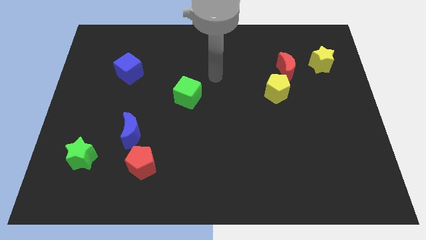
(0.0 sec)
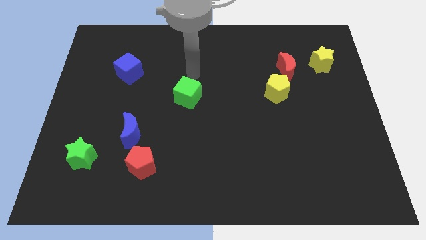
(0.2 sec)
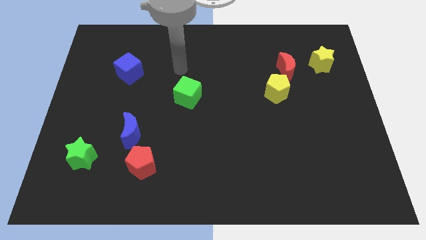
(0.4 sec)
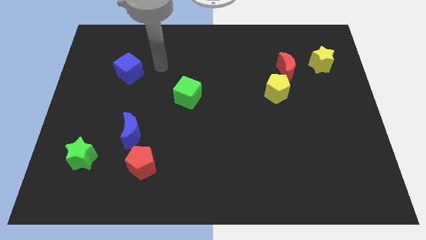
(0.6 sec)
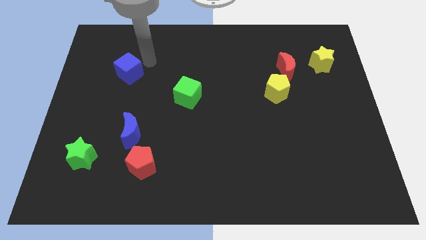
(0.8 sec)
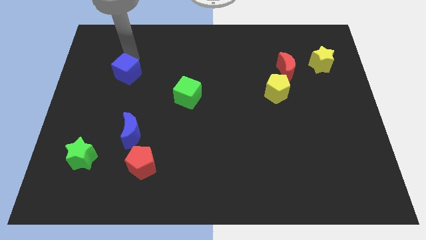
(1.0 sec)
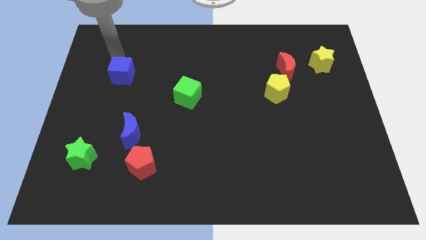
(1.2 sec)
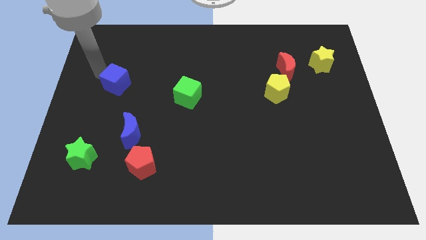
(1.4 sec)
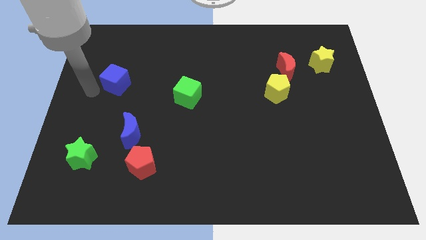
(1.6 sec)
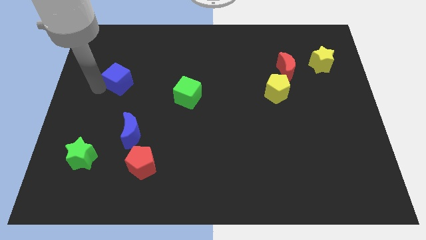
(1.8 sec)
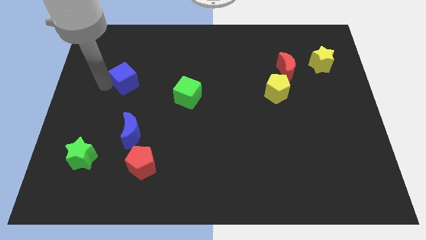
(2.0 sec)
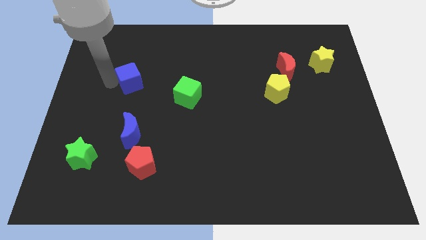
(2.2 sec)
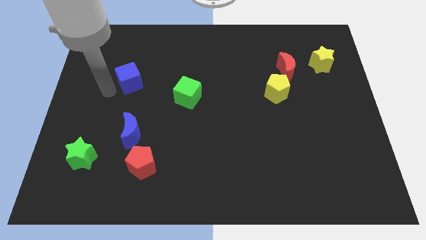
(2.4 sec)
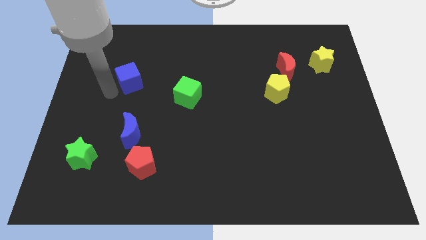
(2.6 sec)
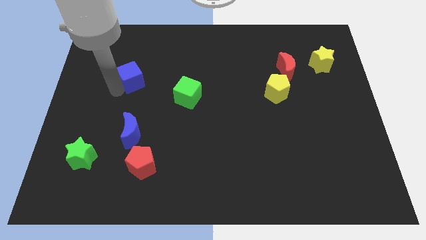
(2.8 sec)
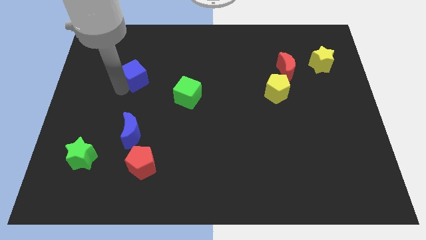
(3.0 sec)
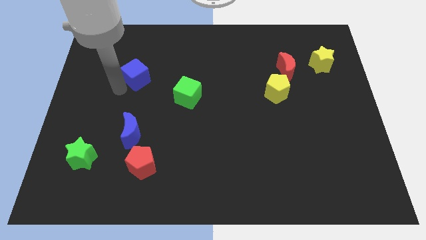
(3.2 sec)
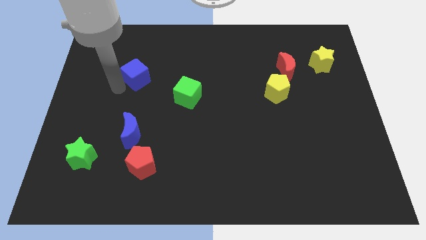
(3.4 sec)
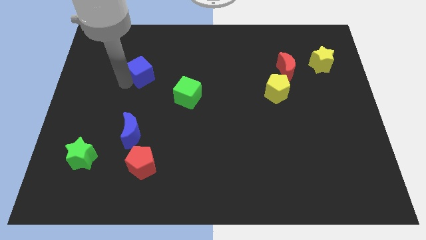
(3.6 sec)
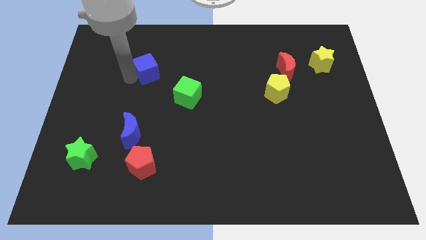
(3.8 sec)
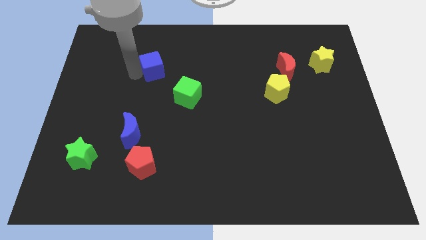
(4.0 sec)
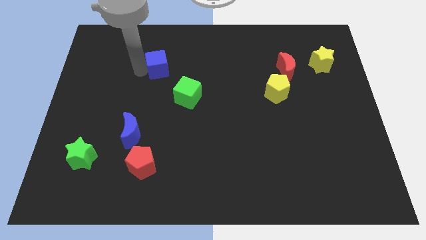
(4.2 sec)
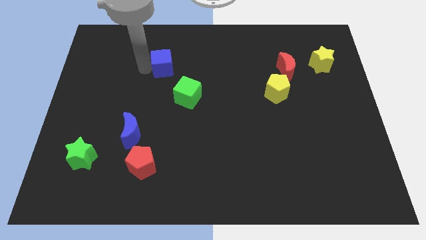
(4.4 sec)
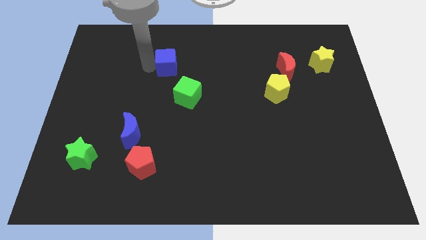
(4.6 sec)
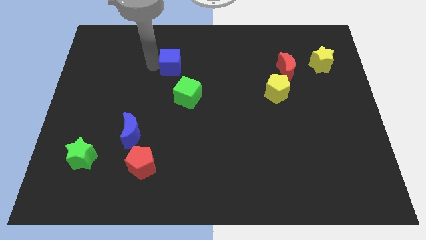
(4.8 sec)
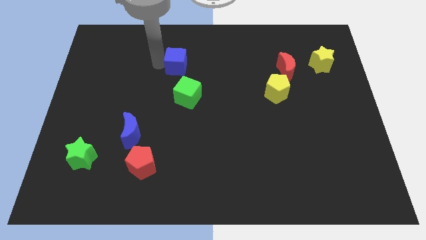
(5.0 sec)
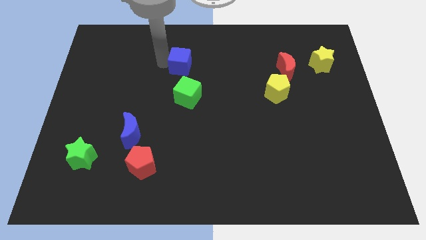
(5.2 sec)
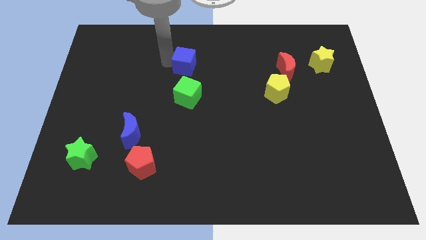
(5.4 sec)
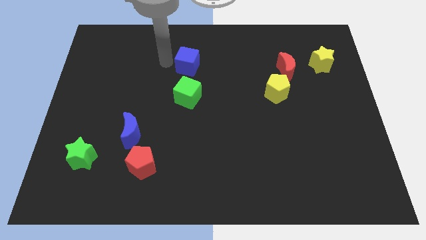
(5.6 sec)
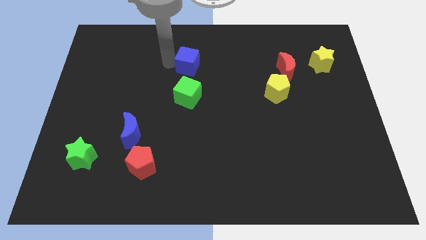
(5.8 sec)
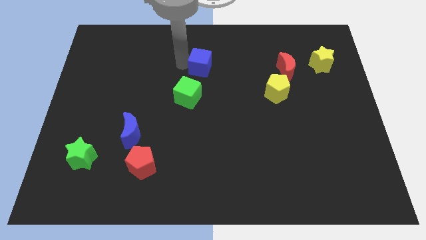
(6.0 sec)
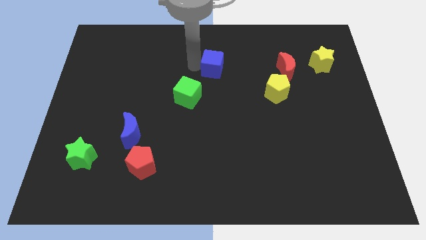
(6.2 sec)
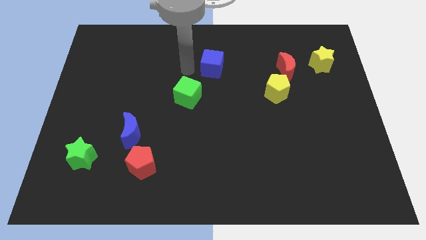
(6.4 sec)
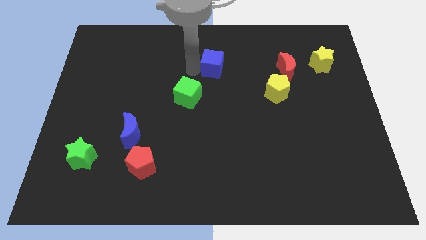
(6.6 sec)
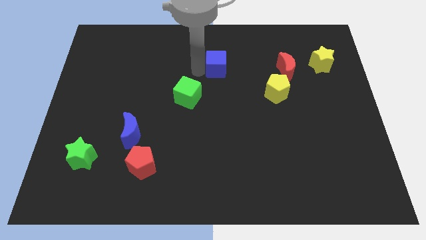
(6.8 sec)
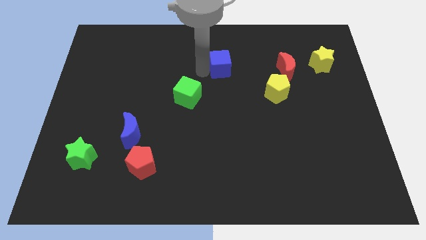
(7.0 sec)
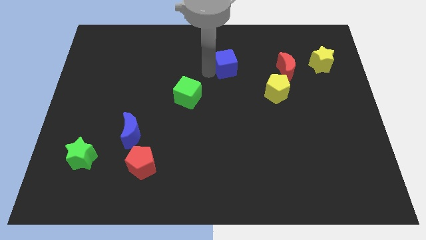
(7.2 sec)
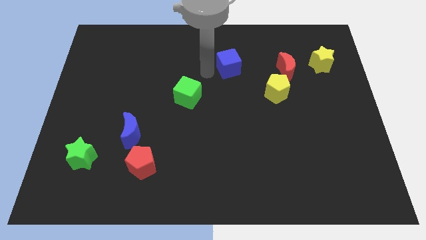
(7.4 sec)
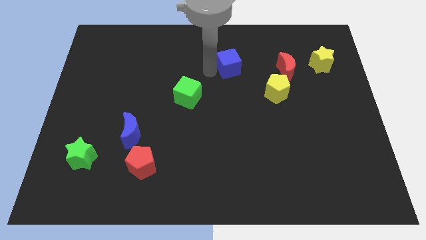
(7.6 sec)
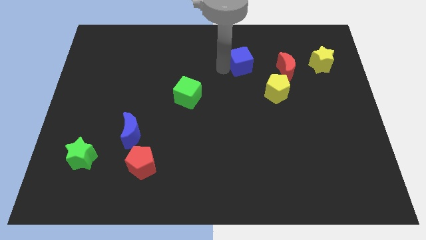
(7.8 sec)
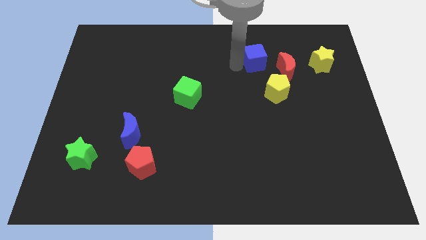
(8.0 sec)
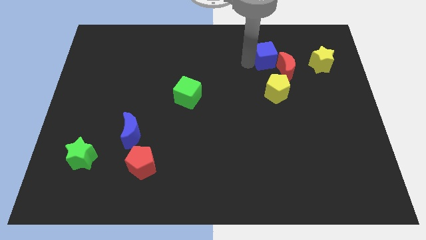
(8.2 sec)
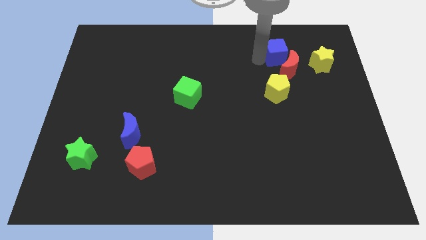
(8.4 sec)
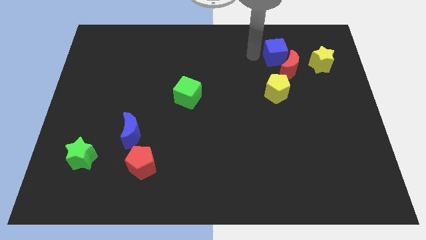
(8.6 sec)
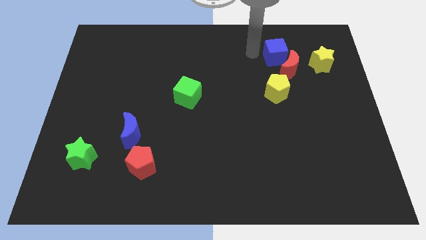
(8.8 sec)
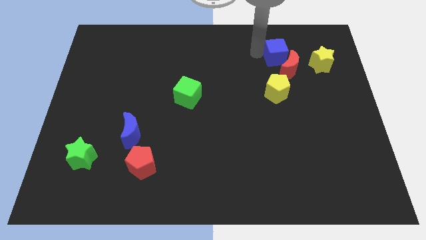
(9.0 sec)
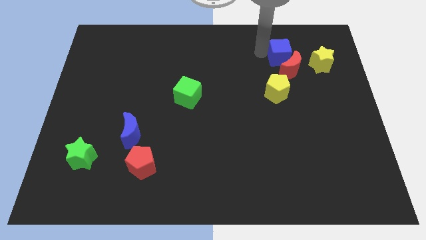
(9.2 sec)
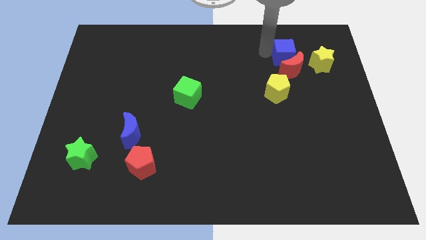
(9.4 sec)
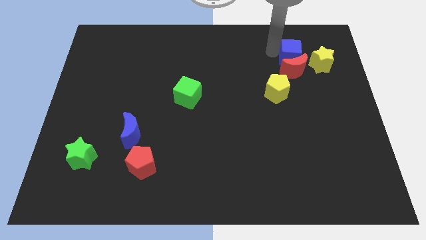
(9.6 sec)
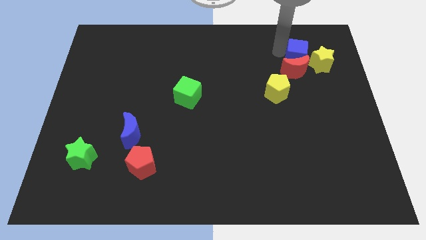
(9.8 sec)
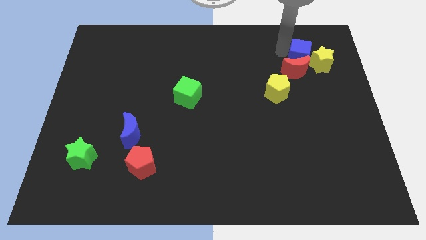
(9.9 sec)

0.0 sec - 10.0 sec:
move the blue cube next to the yellow star

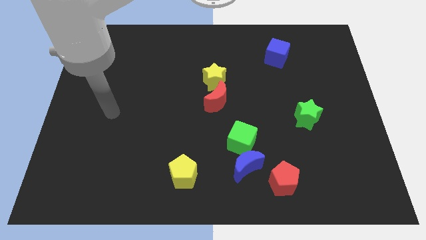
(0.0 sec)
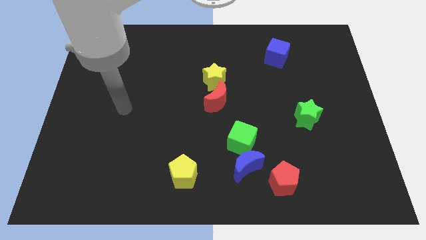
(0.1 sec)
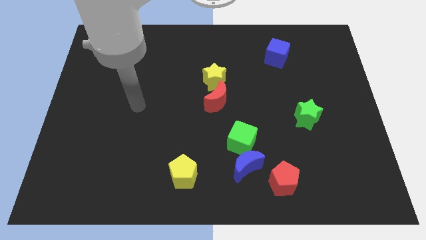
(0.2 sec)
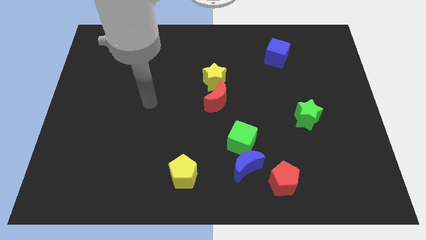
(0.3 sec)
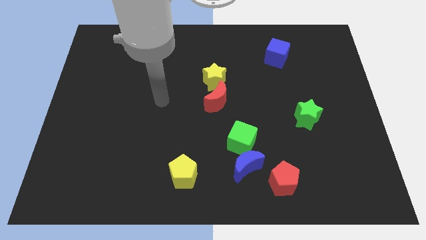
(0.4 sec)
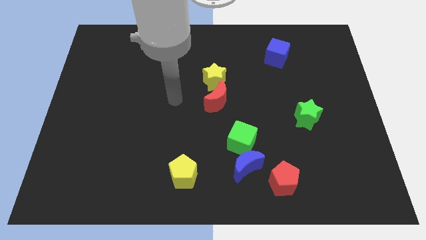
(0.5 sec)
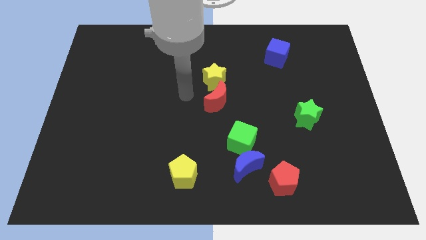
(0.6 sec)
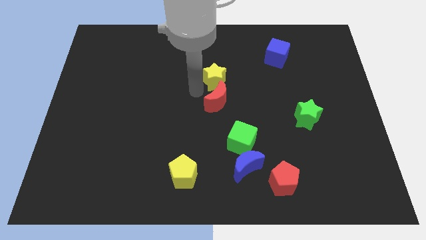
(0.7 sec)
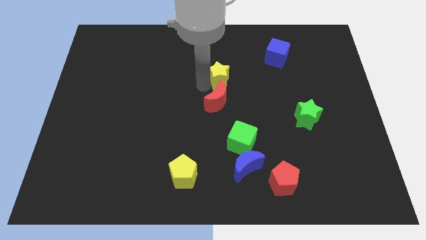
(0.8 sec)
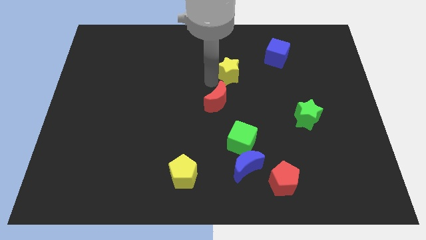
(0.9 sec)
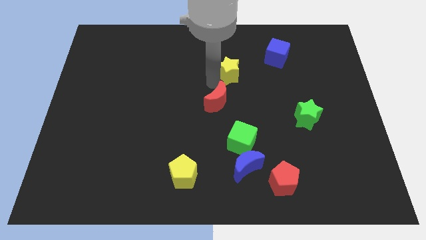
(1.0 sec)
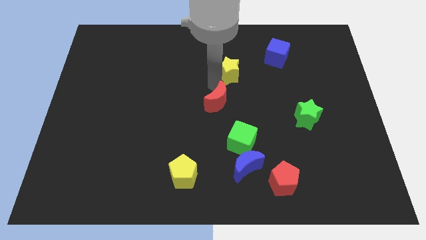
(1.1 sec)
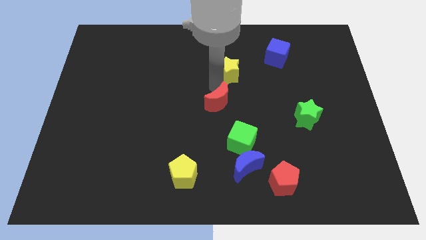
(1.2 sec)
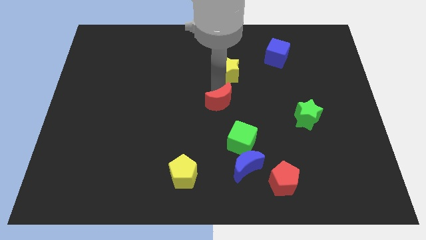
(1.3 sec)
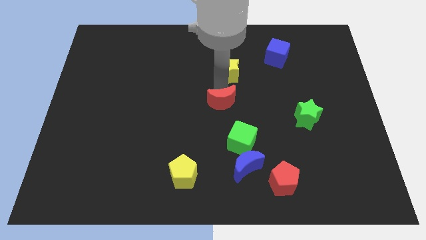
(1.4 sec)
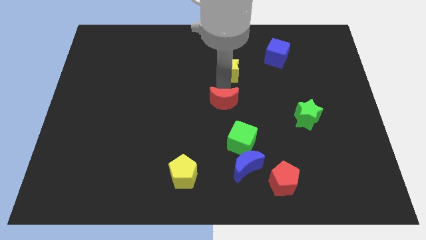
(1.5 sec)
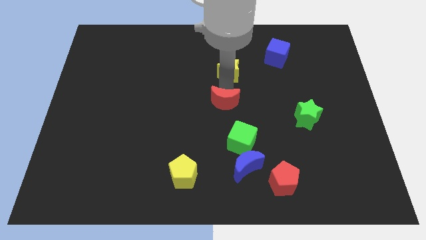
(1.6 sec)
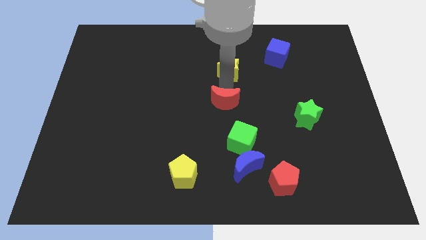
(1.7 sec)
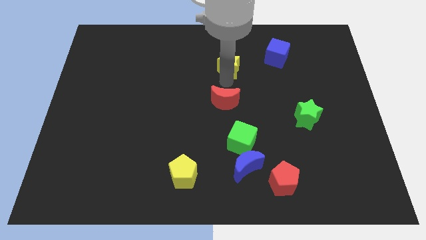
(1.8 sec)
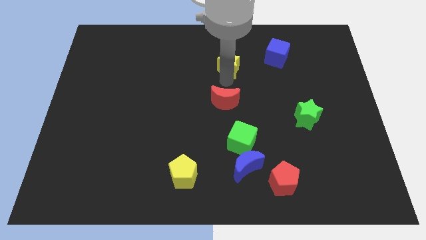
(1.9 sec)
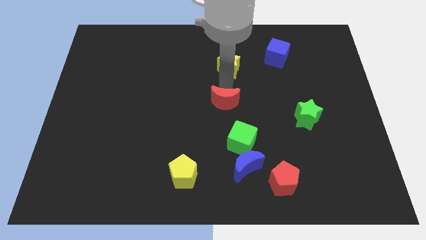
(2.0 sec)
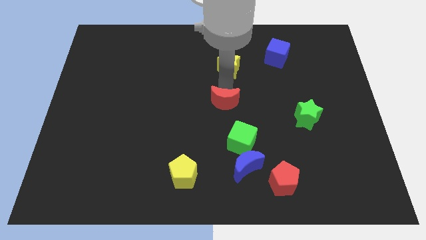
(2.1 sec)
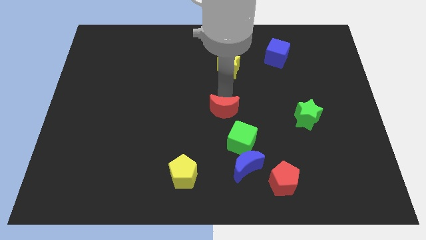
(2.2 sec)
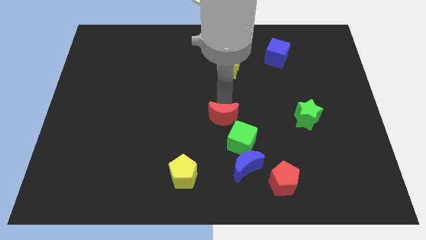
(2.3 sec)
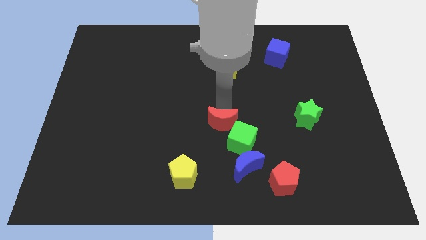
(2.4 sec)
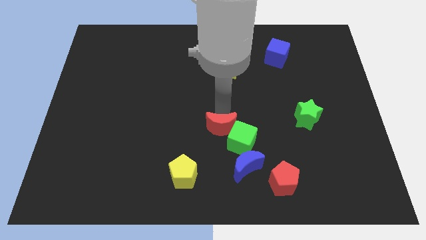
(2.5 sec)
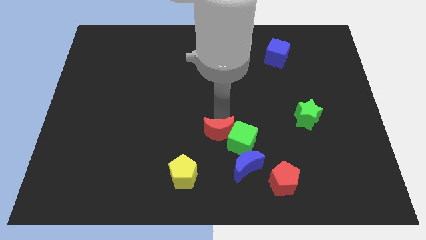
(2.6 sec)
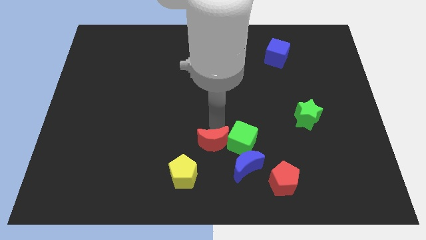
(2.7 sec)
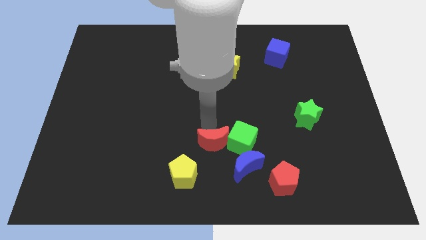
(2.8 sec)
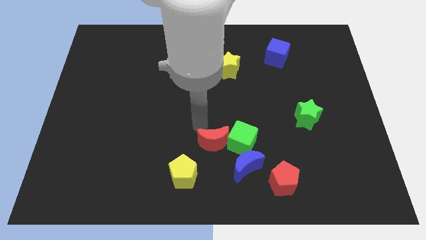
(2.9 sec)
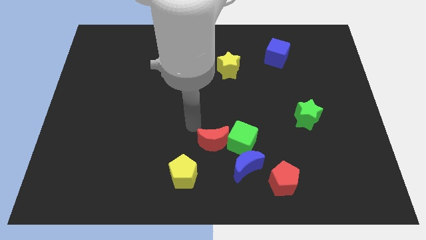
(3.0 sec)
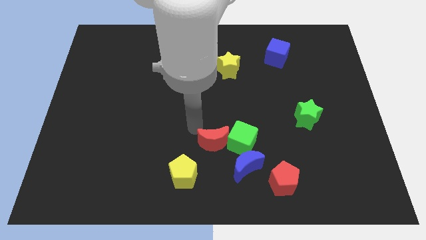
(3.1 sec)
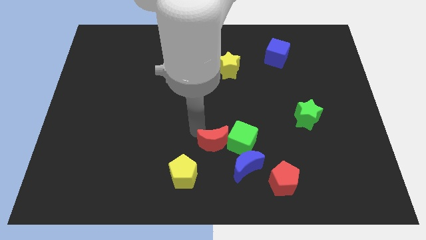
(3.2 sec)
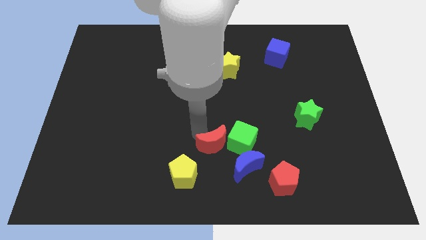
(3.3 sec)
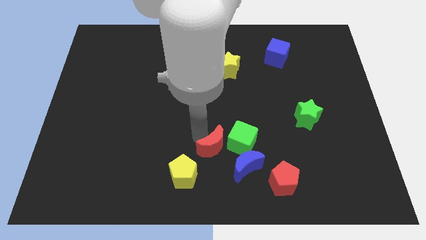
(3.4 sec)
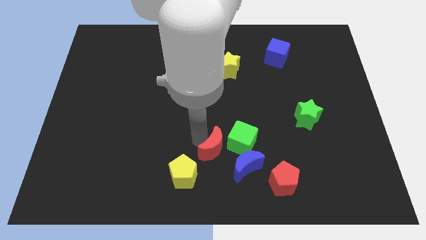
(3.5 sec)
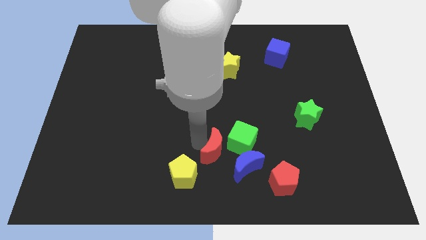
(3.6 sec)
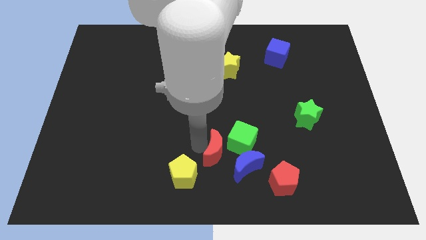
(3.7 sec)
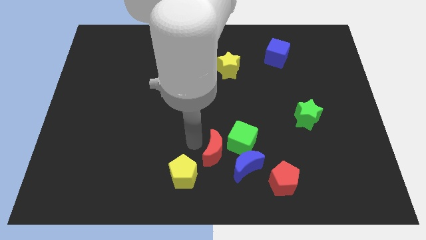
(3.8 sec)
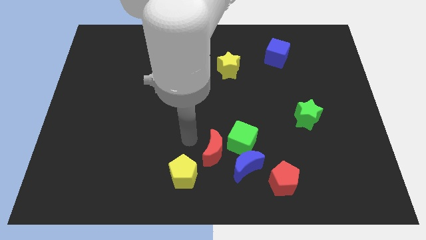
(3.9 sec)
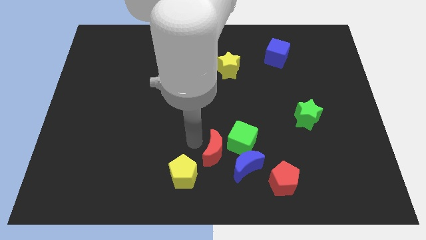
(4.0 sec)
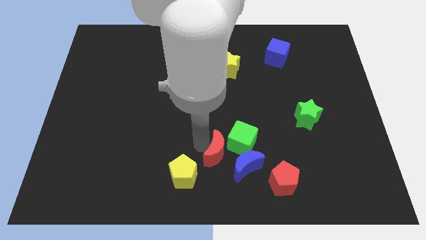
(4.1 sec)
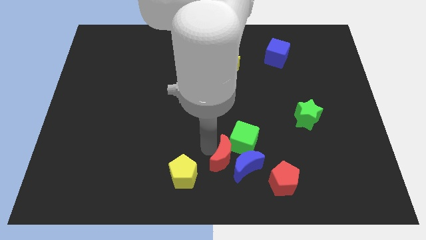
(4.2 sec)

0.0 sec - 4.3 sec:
put the red moon to the blue moon
